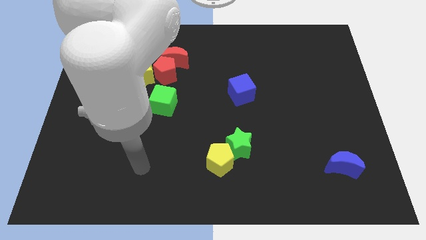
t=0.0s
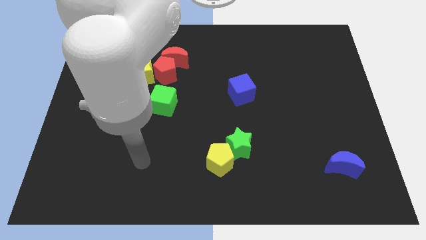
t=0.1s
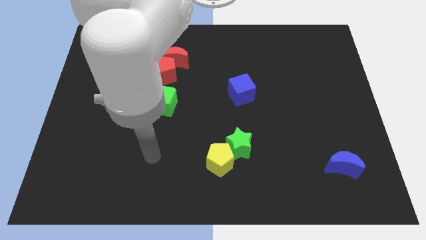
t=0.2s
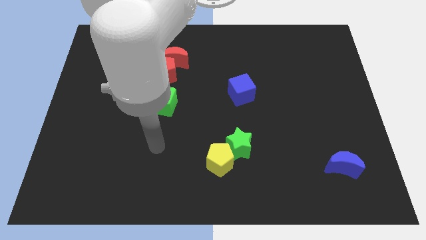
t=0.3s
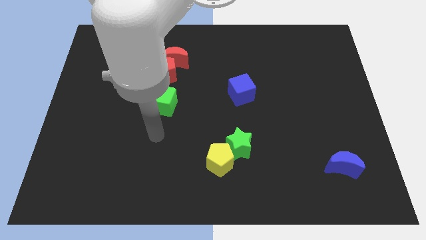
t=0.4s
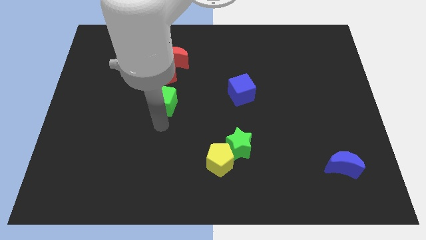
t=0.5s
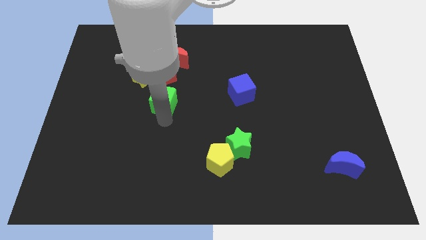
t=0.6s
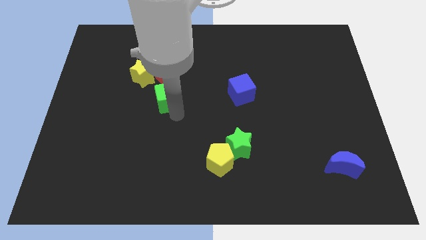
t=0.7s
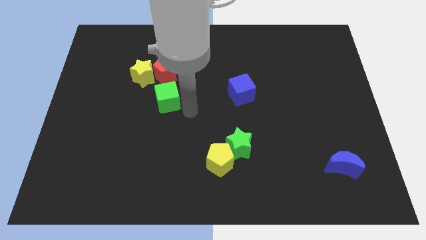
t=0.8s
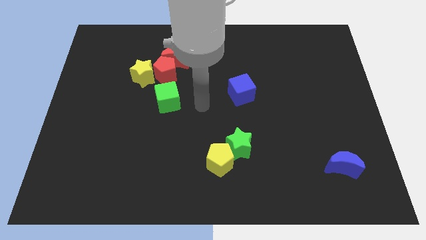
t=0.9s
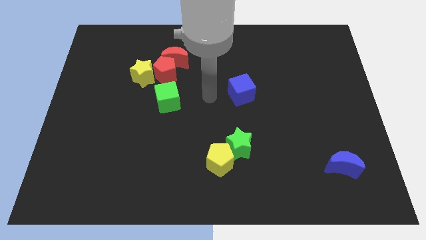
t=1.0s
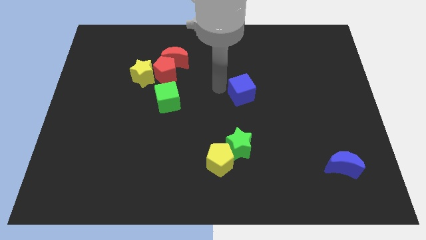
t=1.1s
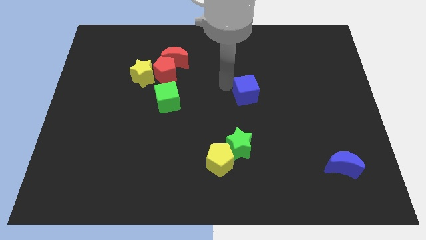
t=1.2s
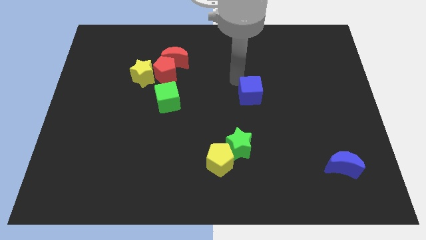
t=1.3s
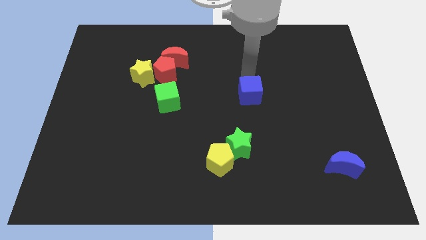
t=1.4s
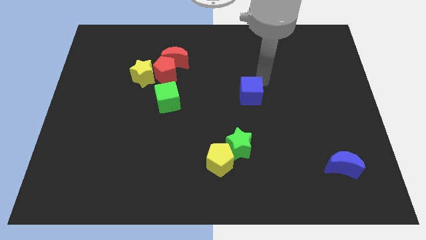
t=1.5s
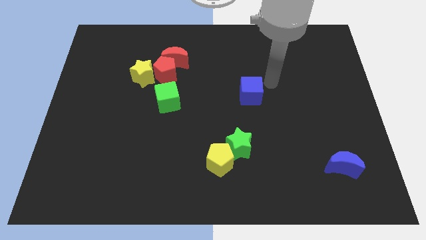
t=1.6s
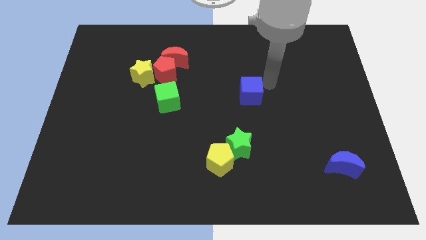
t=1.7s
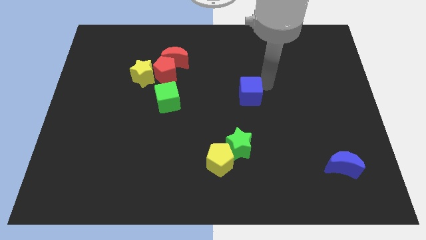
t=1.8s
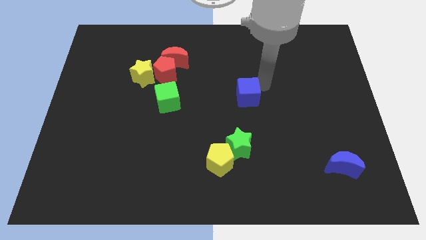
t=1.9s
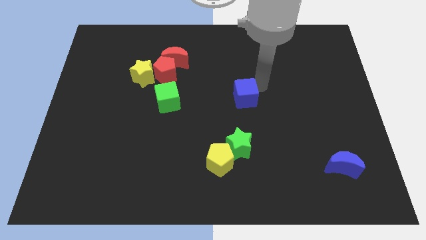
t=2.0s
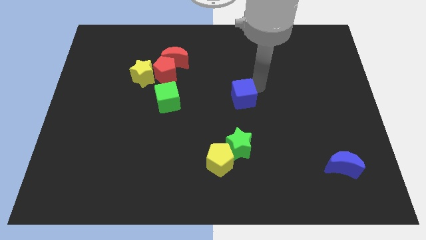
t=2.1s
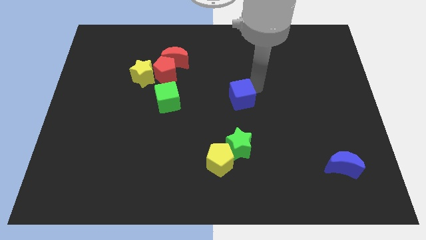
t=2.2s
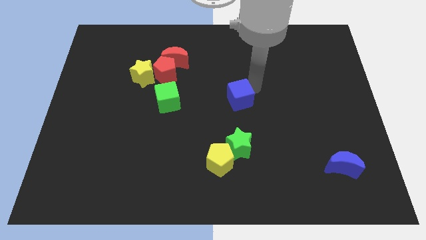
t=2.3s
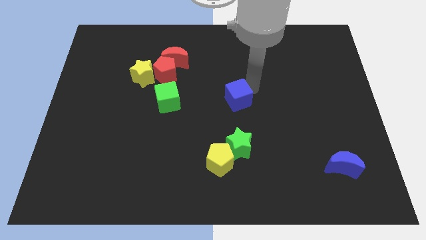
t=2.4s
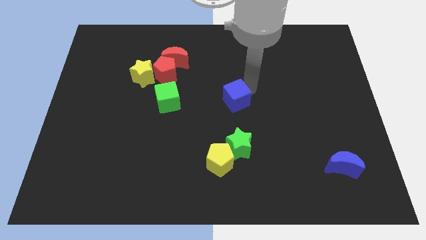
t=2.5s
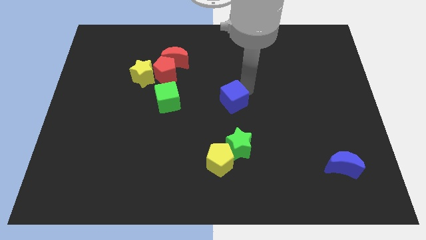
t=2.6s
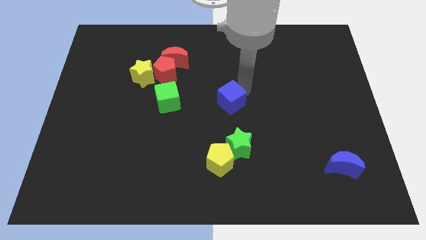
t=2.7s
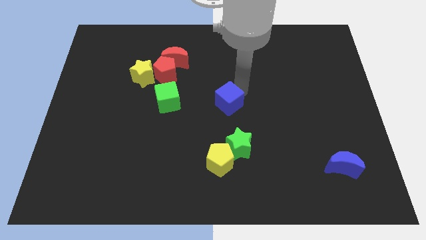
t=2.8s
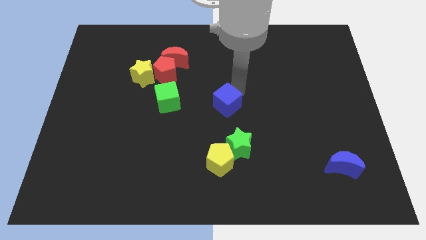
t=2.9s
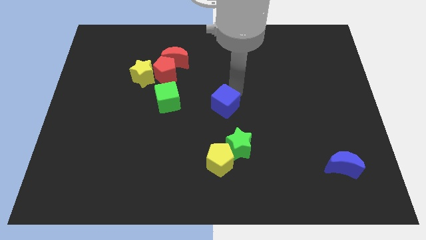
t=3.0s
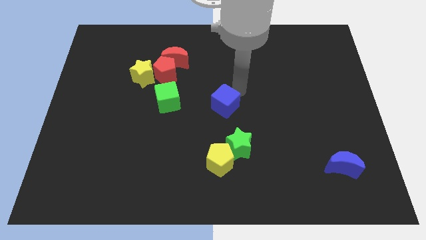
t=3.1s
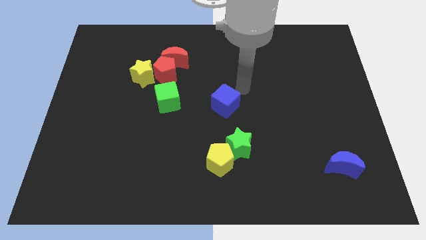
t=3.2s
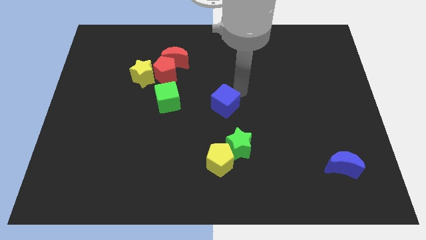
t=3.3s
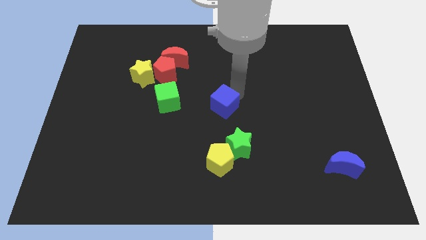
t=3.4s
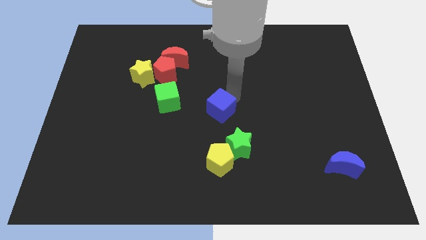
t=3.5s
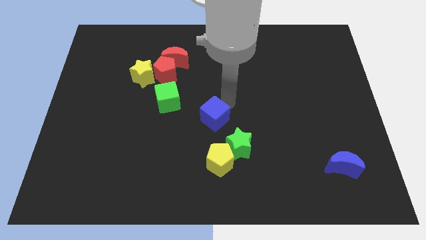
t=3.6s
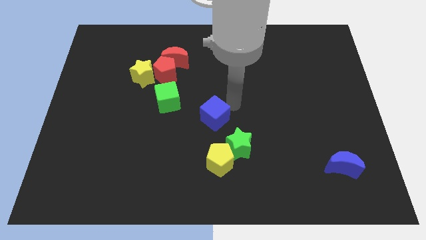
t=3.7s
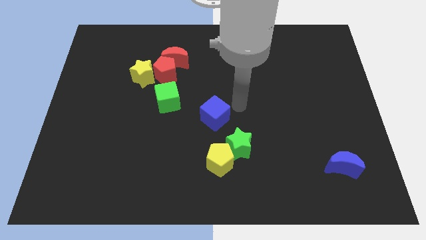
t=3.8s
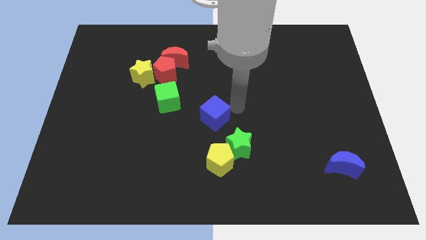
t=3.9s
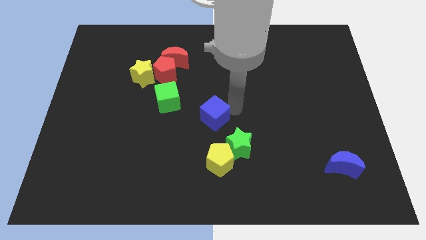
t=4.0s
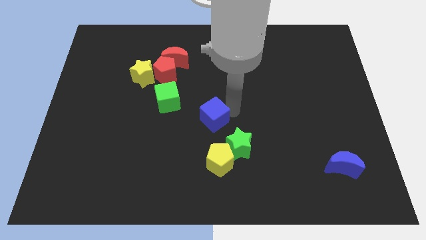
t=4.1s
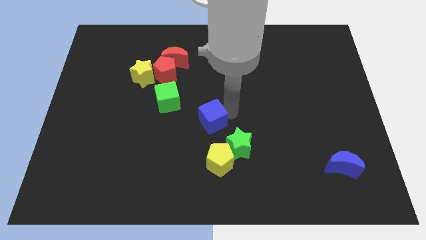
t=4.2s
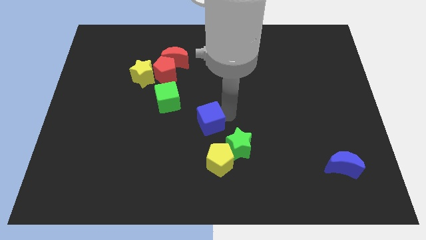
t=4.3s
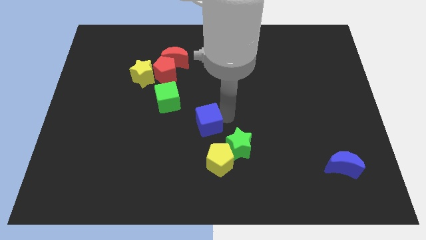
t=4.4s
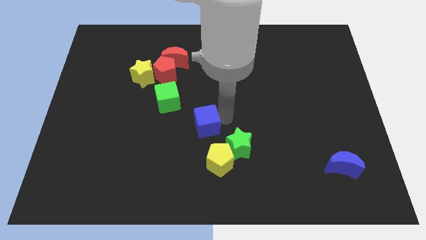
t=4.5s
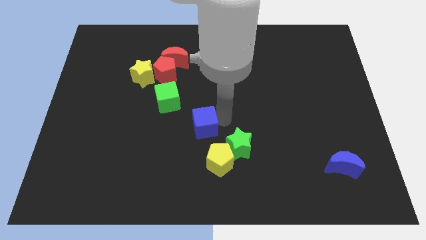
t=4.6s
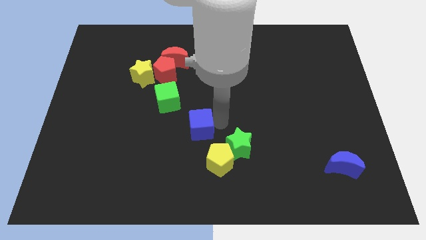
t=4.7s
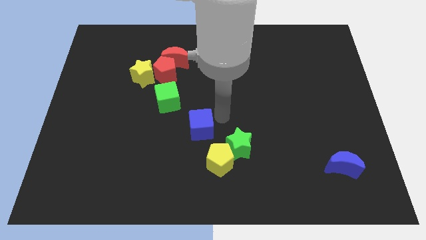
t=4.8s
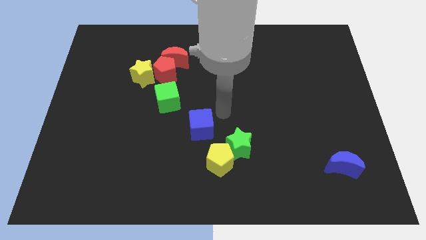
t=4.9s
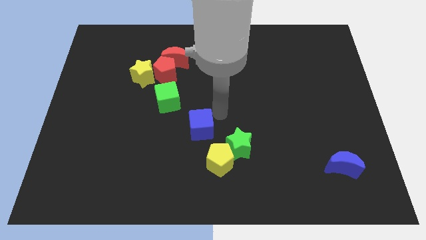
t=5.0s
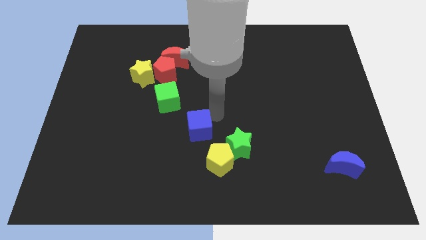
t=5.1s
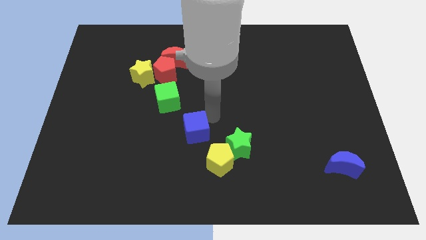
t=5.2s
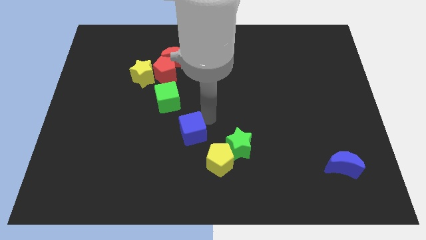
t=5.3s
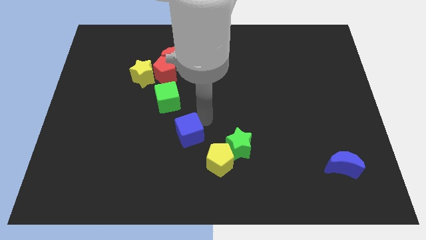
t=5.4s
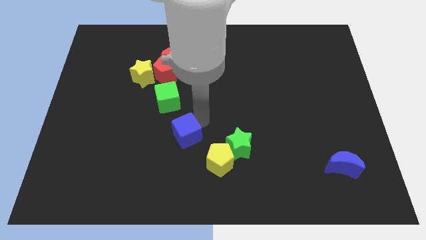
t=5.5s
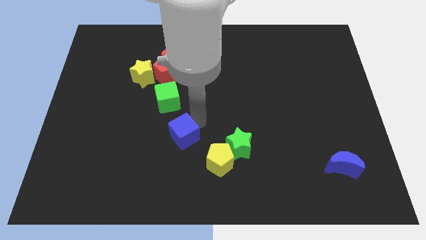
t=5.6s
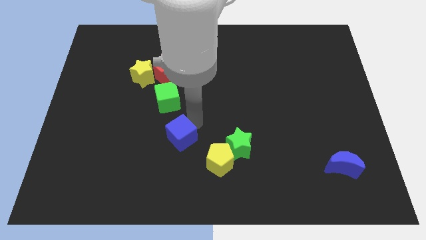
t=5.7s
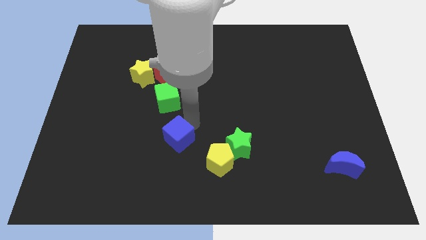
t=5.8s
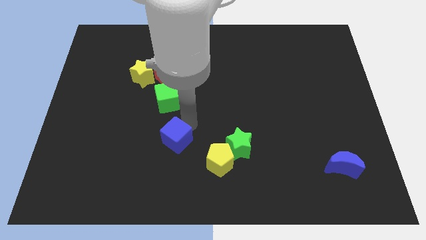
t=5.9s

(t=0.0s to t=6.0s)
move the blue cube down and then to the left

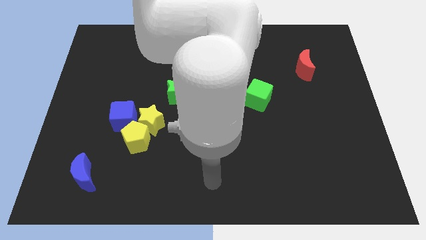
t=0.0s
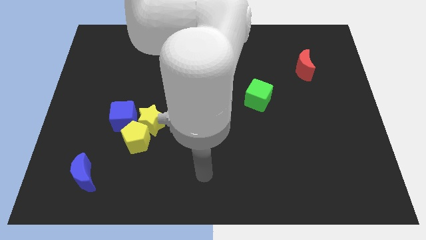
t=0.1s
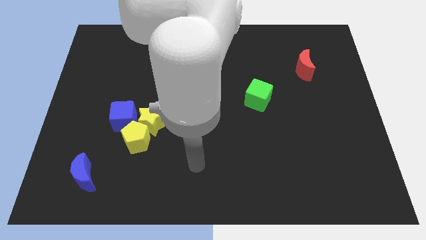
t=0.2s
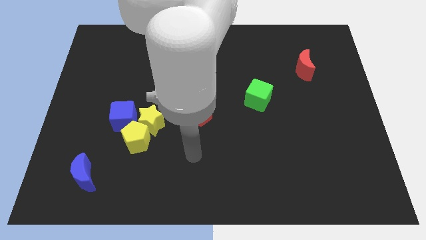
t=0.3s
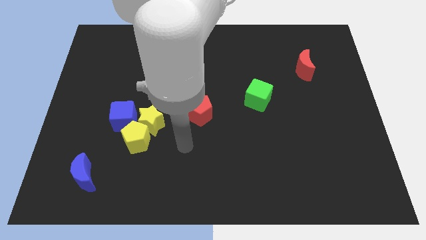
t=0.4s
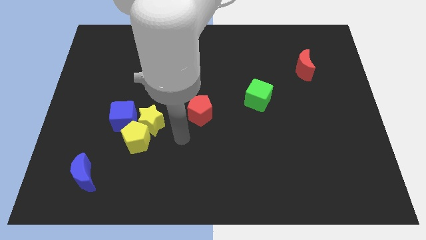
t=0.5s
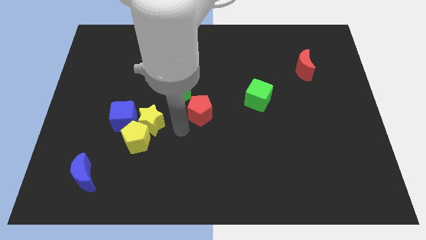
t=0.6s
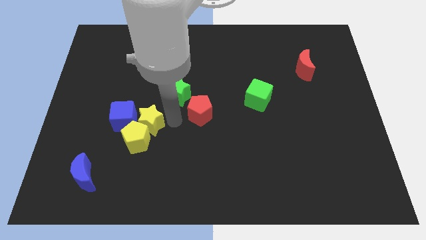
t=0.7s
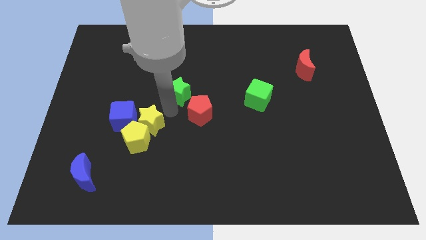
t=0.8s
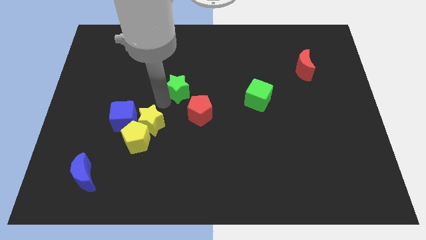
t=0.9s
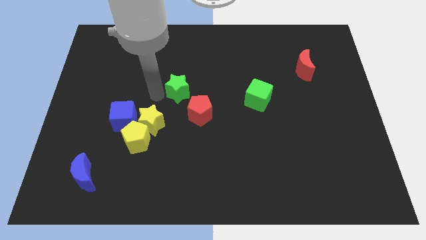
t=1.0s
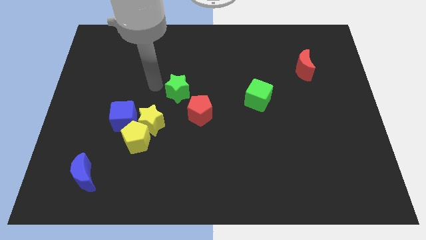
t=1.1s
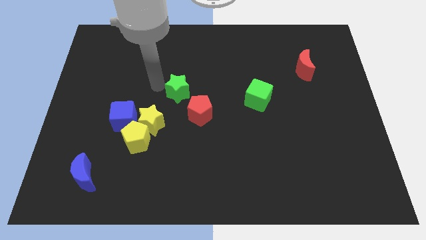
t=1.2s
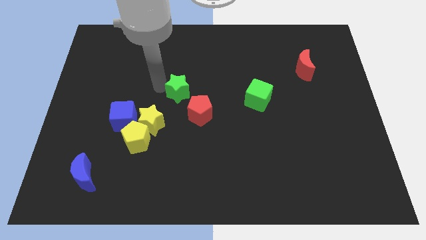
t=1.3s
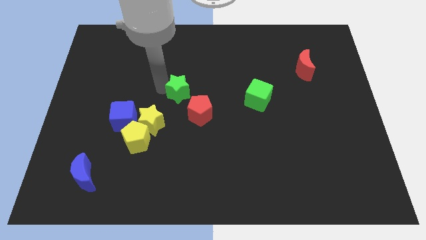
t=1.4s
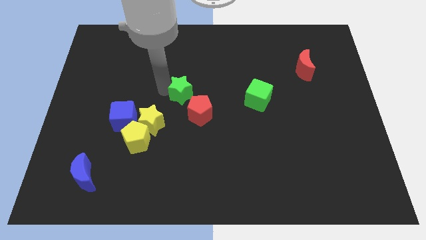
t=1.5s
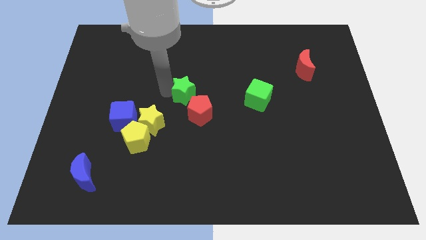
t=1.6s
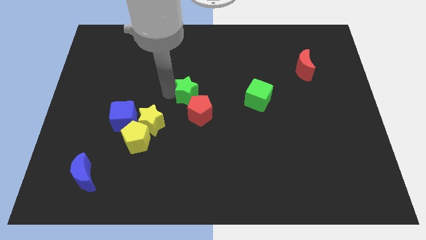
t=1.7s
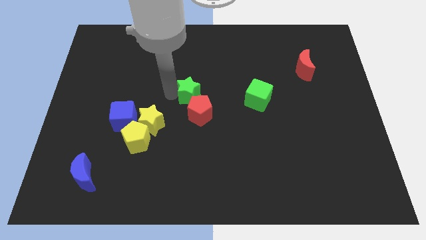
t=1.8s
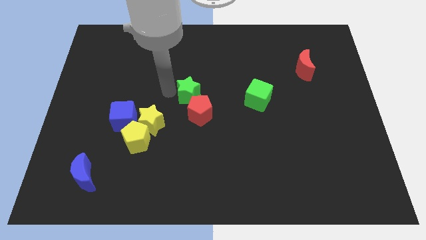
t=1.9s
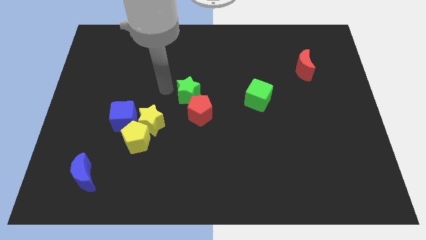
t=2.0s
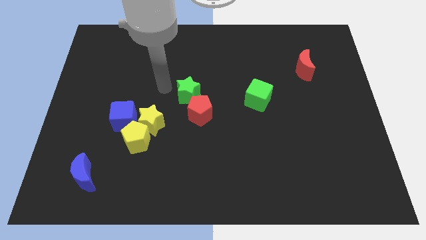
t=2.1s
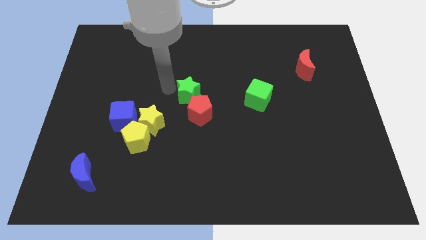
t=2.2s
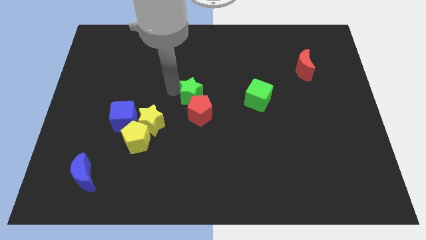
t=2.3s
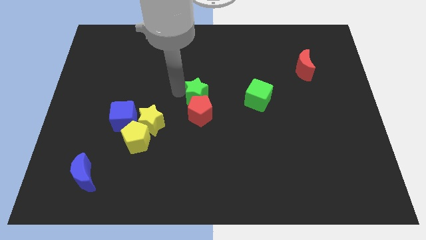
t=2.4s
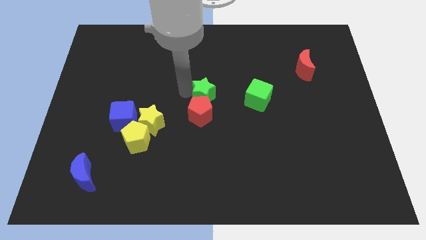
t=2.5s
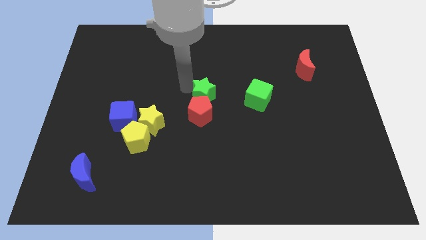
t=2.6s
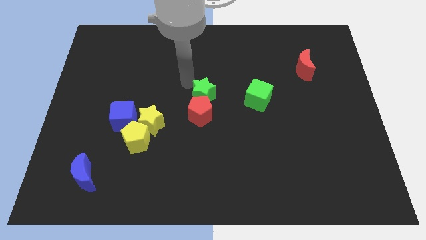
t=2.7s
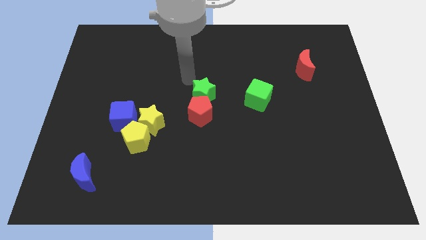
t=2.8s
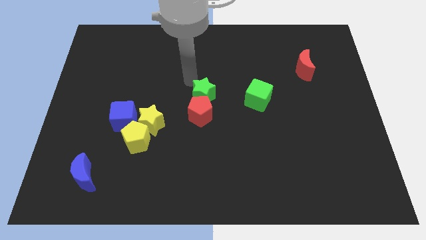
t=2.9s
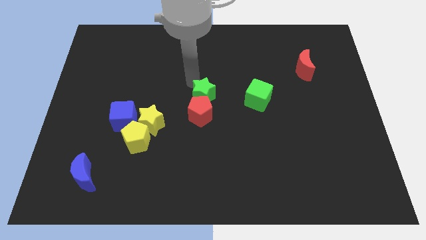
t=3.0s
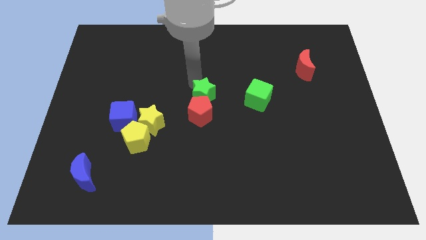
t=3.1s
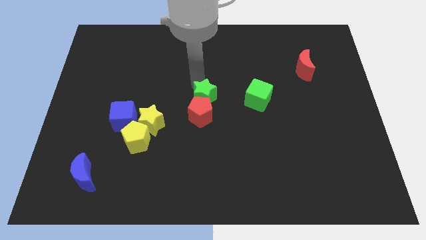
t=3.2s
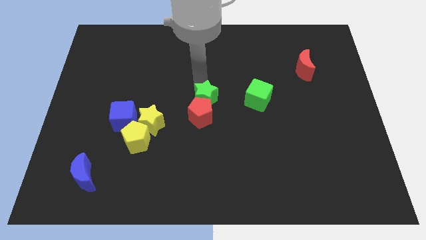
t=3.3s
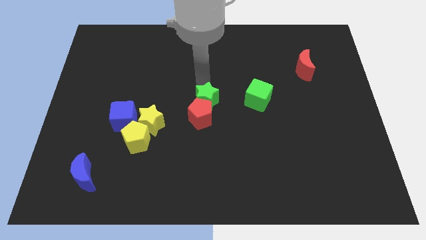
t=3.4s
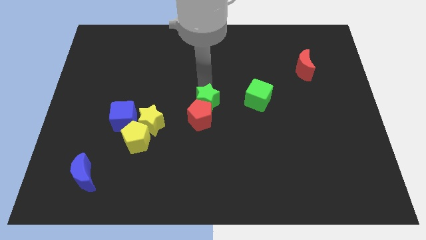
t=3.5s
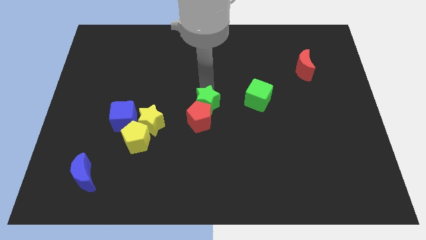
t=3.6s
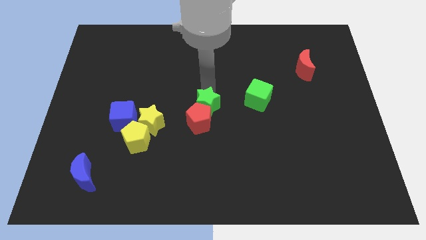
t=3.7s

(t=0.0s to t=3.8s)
slightly push the green star downwards and to the right
